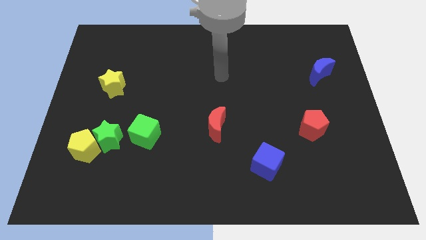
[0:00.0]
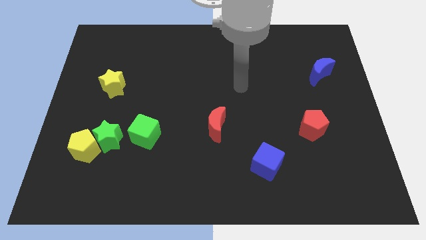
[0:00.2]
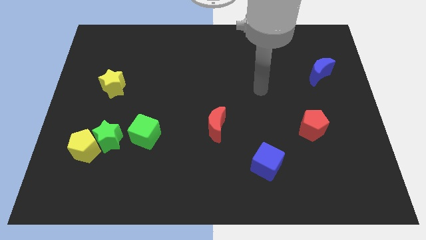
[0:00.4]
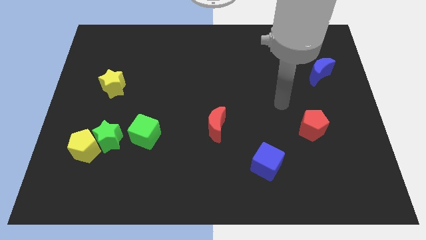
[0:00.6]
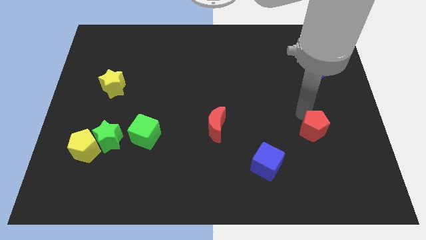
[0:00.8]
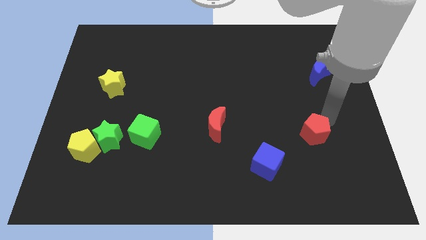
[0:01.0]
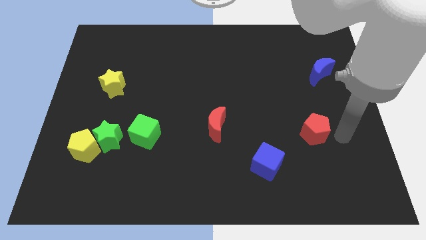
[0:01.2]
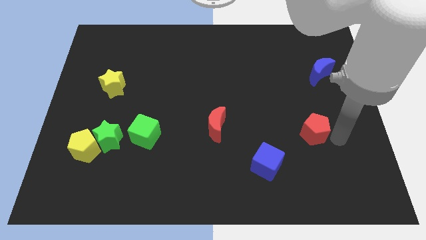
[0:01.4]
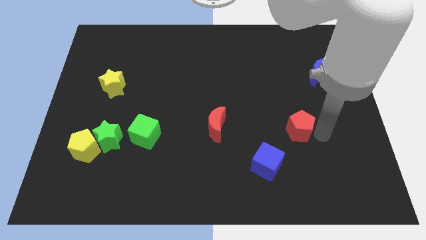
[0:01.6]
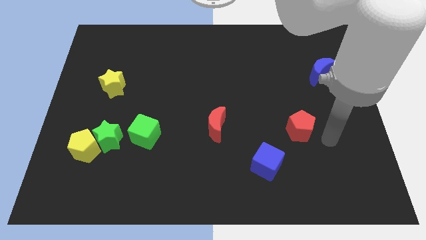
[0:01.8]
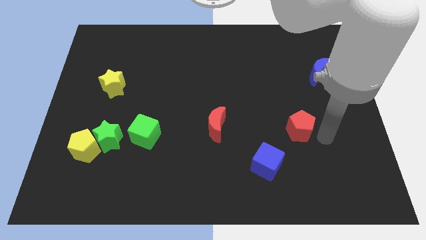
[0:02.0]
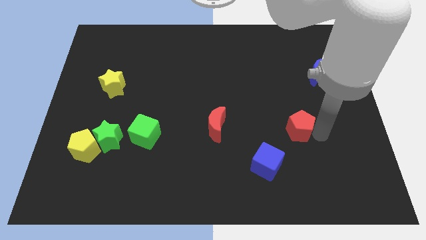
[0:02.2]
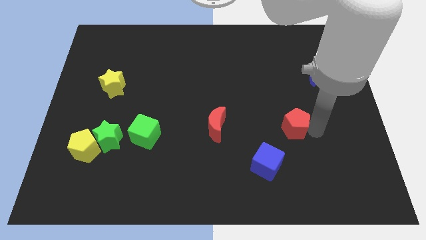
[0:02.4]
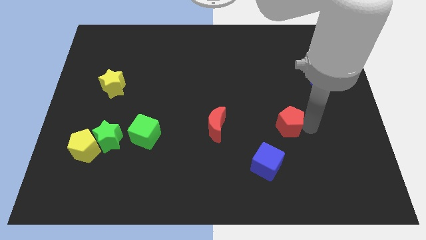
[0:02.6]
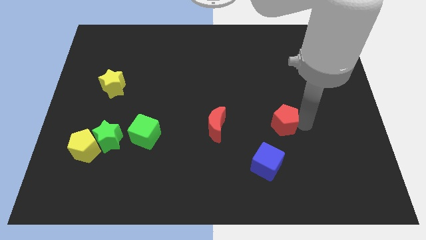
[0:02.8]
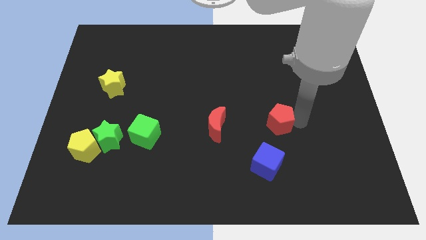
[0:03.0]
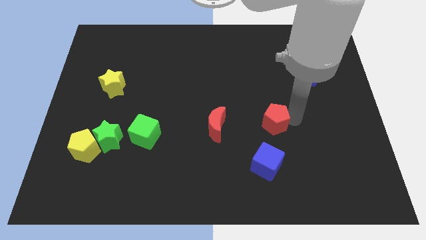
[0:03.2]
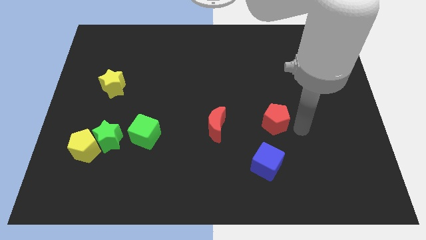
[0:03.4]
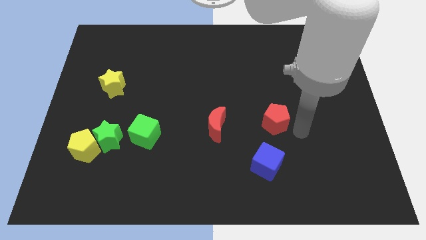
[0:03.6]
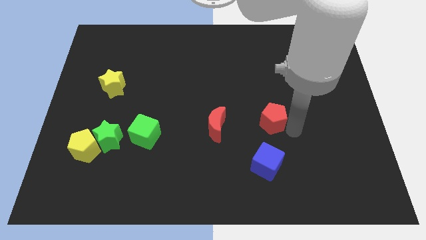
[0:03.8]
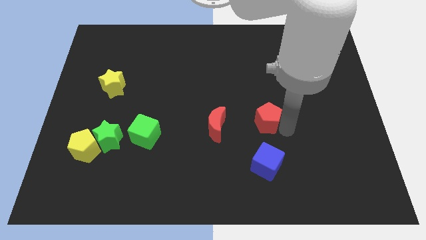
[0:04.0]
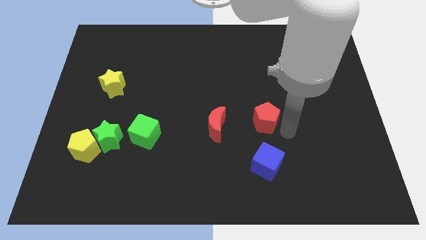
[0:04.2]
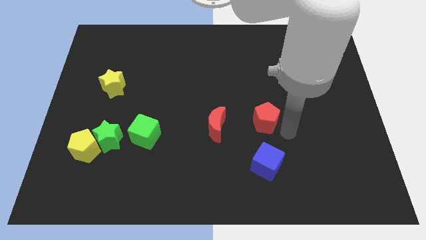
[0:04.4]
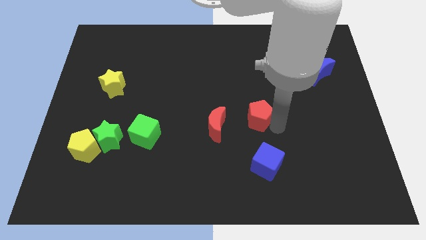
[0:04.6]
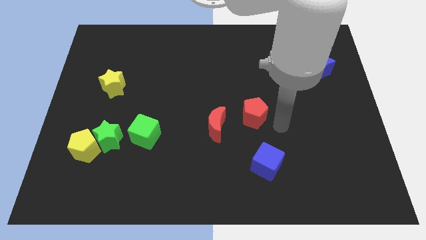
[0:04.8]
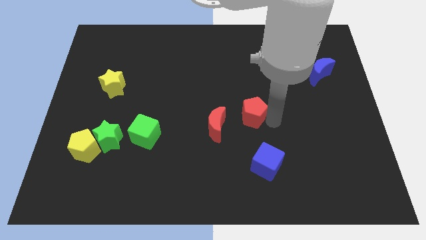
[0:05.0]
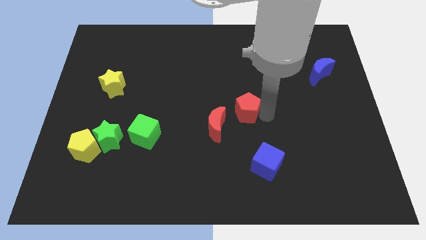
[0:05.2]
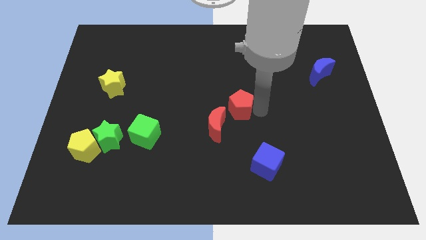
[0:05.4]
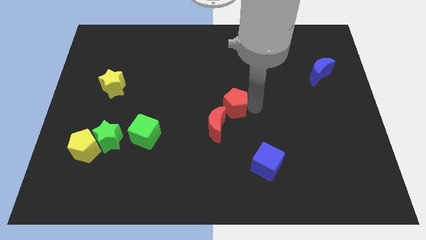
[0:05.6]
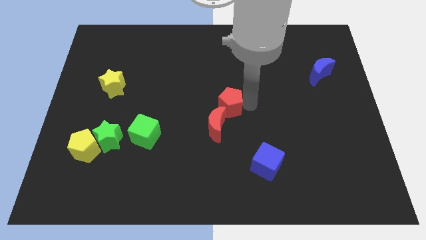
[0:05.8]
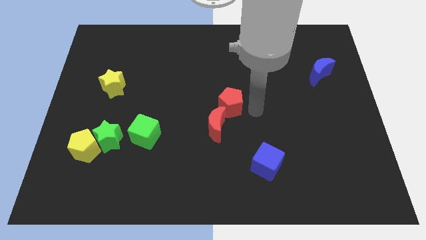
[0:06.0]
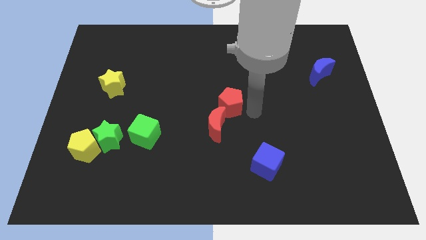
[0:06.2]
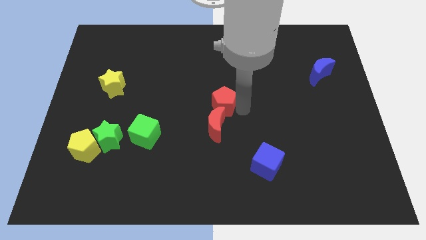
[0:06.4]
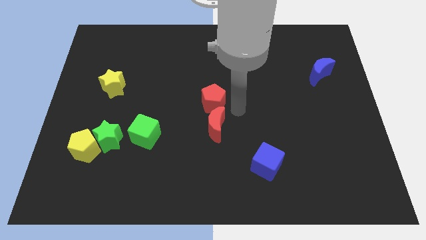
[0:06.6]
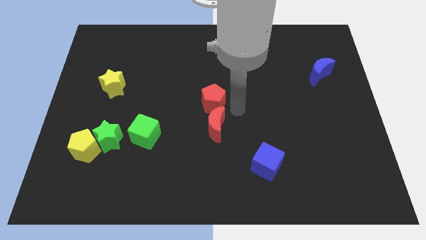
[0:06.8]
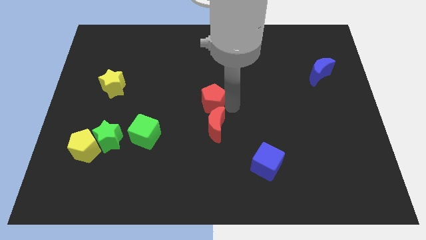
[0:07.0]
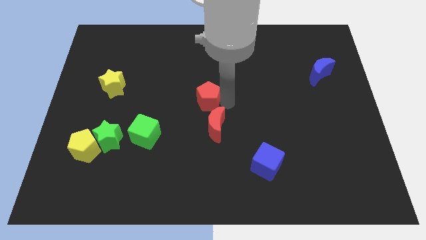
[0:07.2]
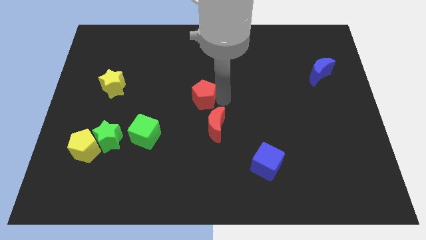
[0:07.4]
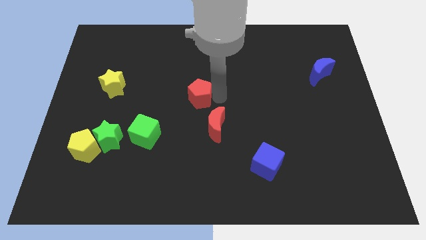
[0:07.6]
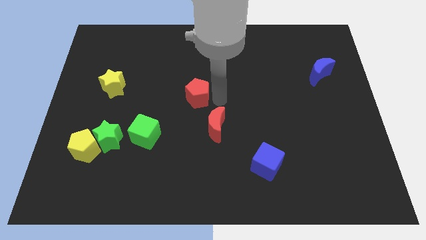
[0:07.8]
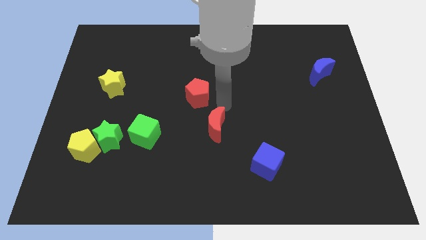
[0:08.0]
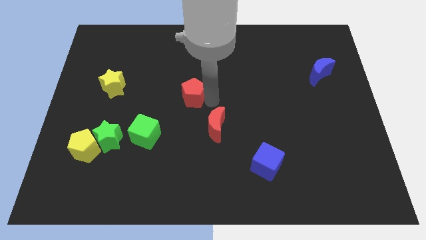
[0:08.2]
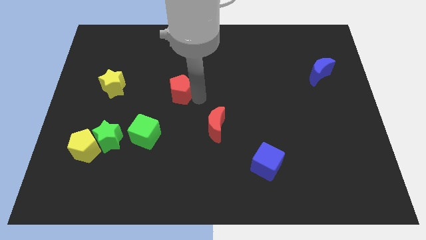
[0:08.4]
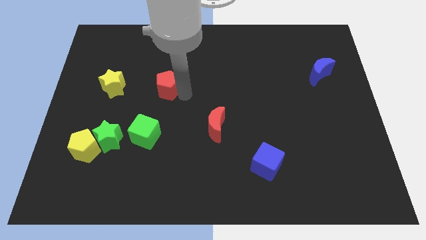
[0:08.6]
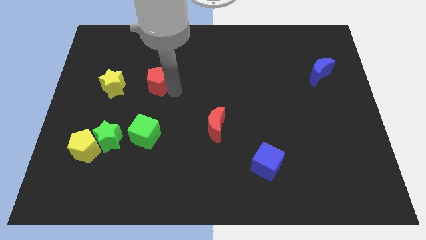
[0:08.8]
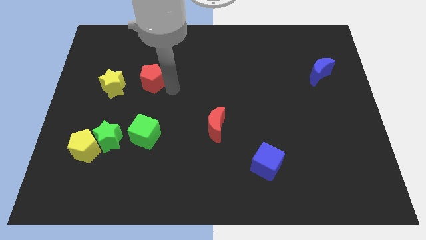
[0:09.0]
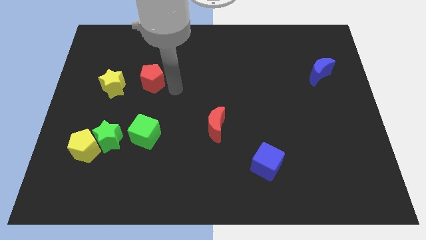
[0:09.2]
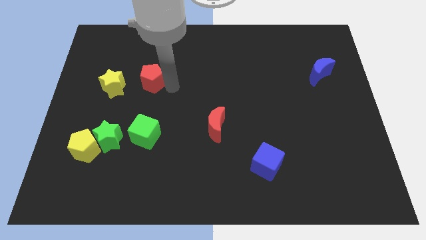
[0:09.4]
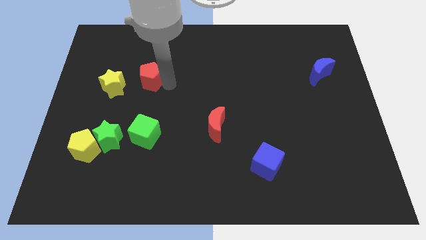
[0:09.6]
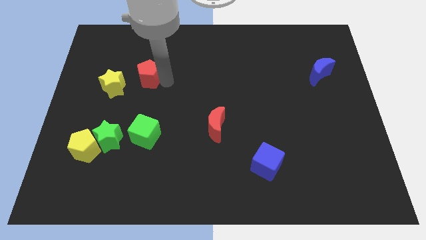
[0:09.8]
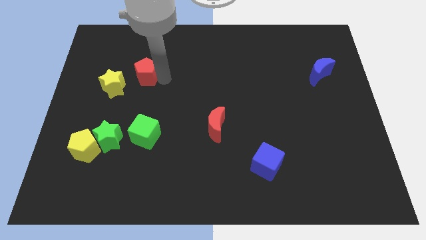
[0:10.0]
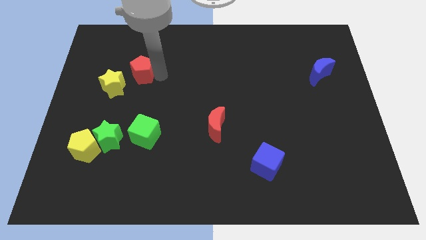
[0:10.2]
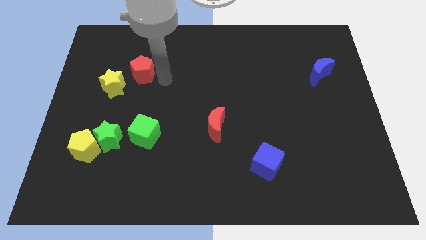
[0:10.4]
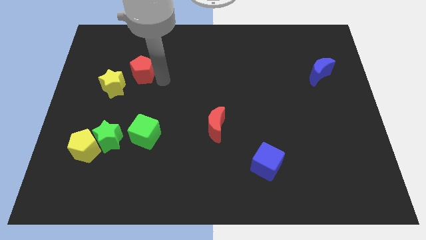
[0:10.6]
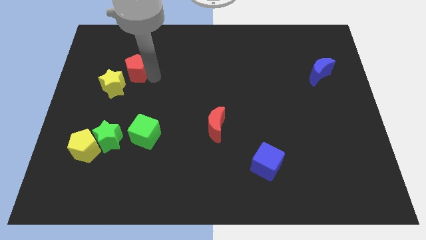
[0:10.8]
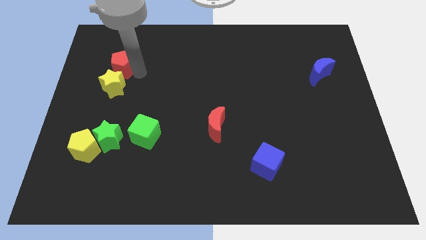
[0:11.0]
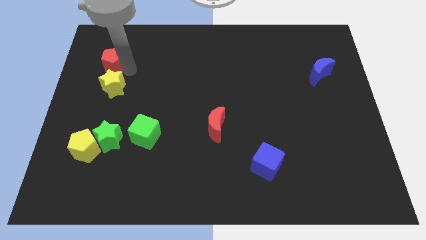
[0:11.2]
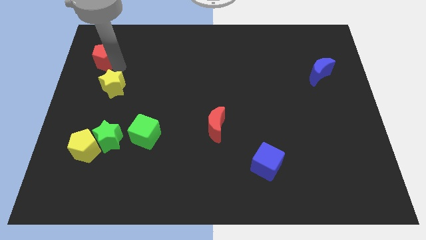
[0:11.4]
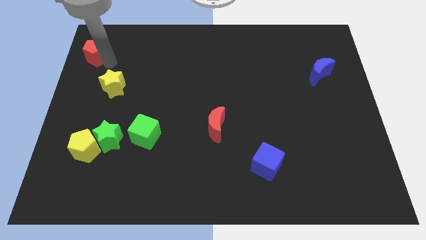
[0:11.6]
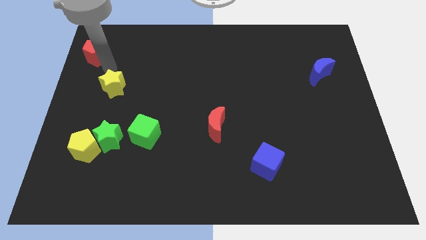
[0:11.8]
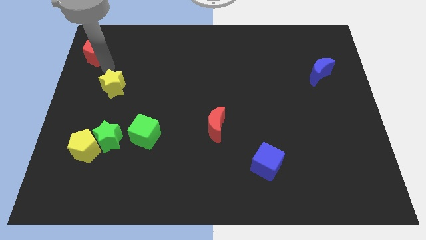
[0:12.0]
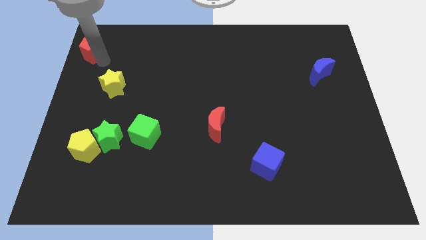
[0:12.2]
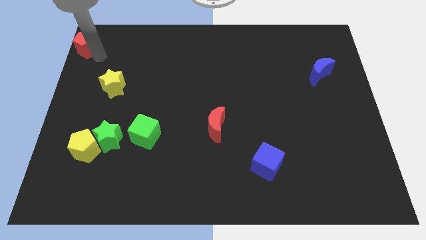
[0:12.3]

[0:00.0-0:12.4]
push the red pentagon to the top left

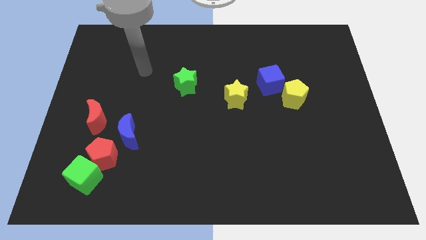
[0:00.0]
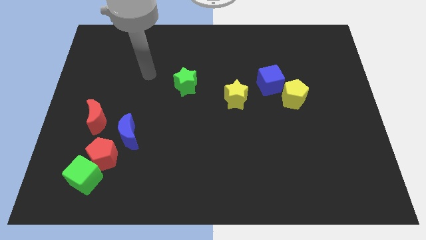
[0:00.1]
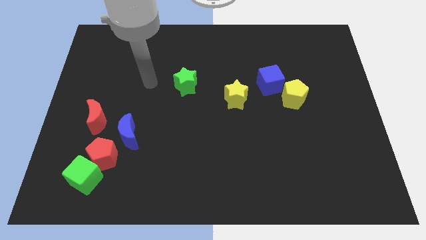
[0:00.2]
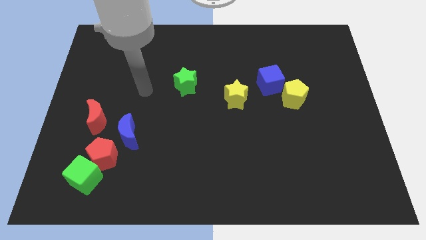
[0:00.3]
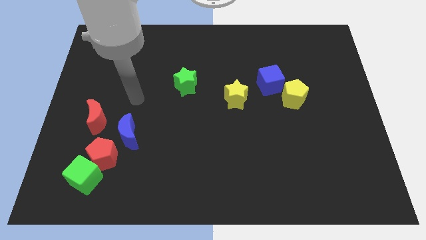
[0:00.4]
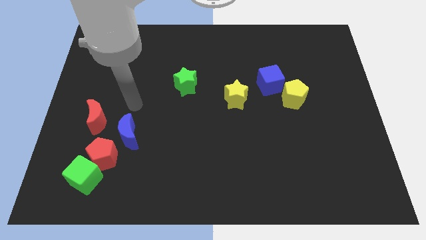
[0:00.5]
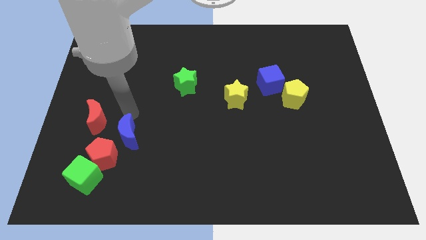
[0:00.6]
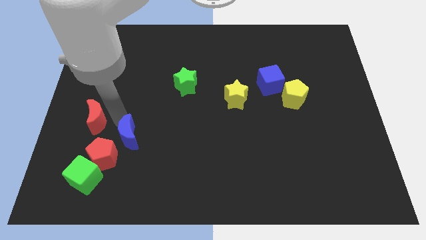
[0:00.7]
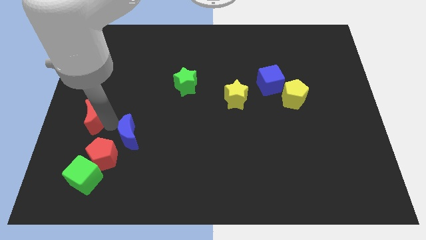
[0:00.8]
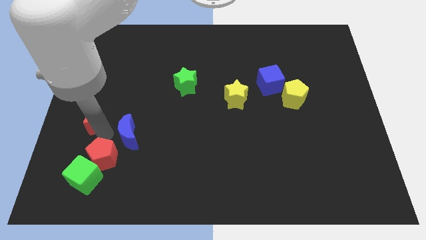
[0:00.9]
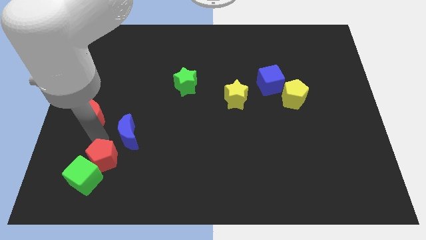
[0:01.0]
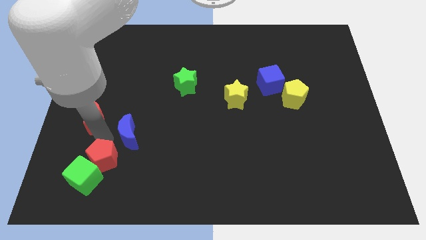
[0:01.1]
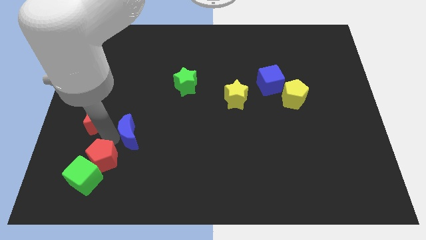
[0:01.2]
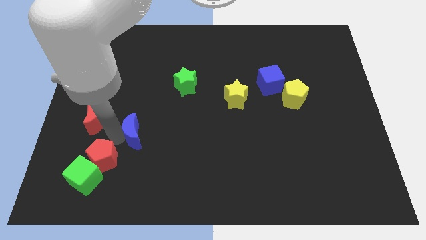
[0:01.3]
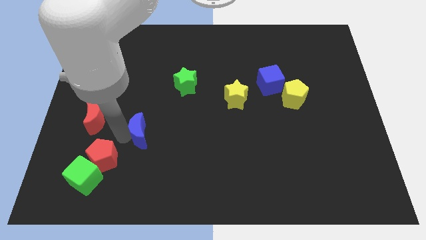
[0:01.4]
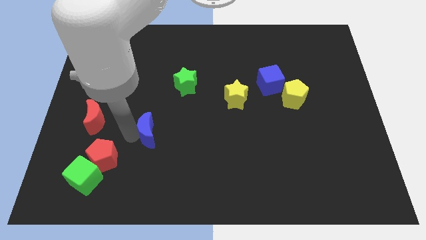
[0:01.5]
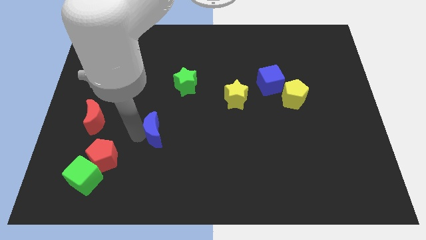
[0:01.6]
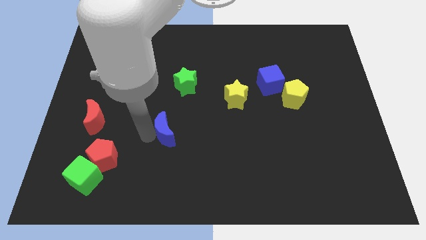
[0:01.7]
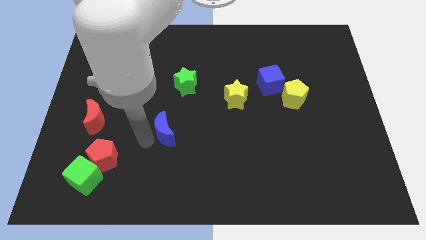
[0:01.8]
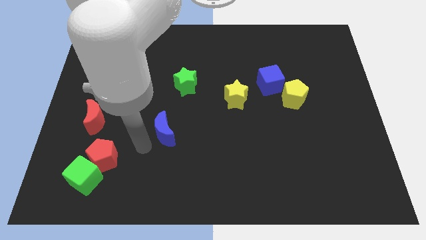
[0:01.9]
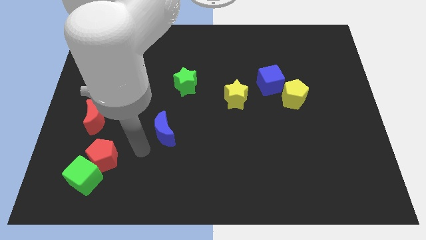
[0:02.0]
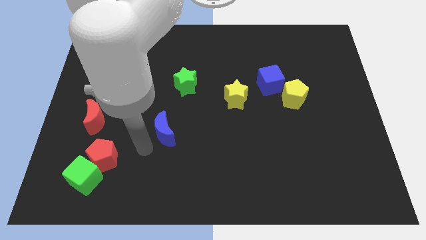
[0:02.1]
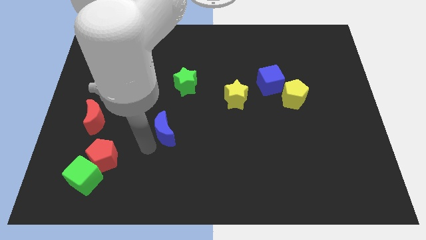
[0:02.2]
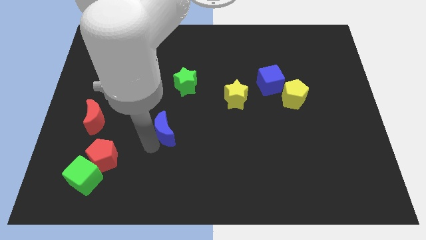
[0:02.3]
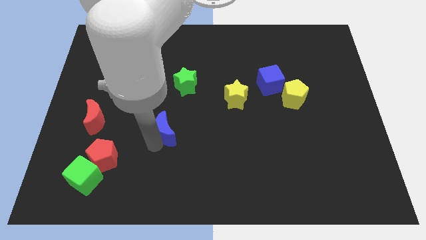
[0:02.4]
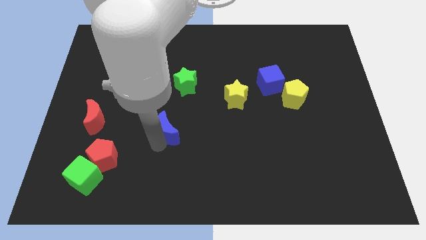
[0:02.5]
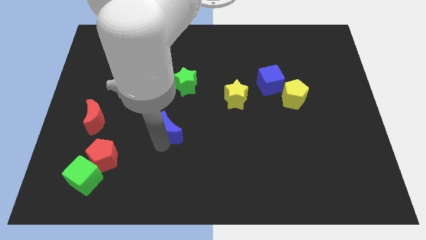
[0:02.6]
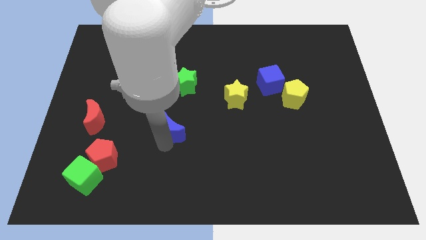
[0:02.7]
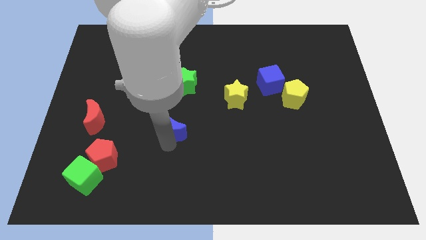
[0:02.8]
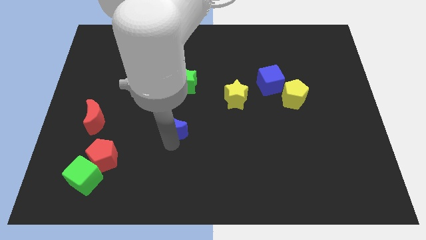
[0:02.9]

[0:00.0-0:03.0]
slide the blue moon to the middle of the board
